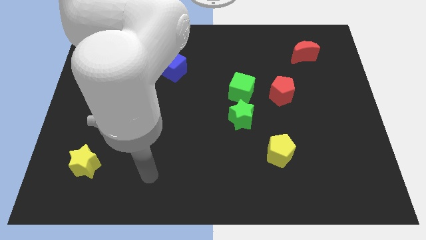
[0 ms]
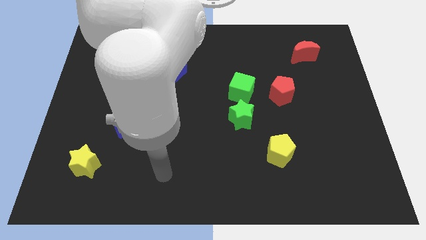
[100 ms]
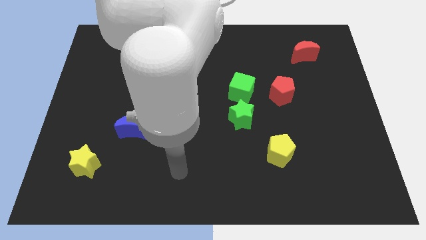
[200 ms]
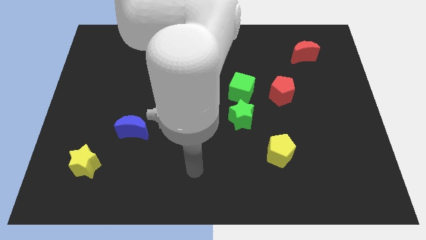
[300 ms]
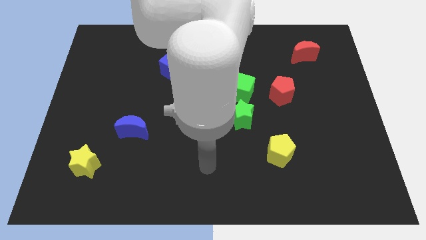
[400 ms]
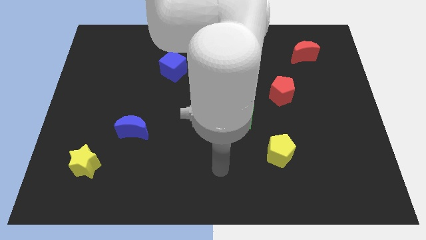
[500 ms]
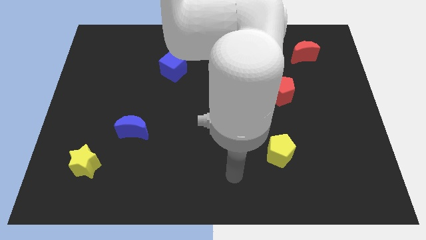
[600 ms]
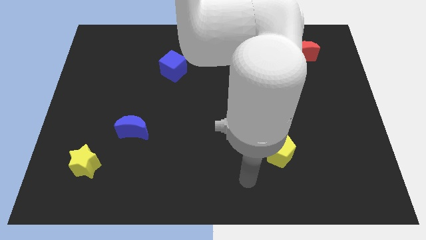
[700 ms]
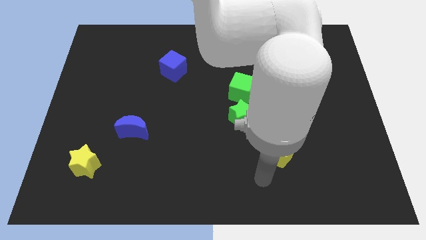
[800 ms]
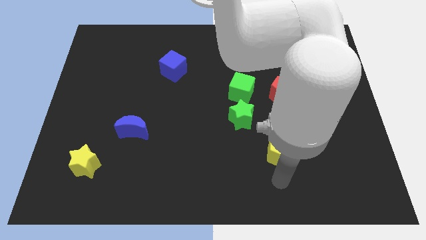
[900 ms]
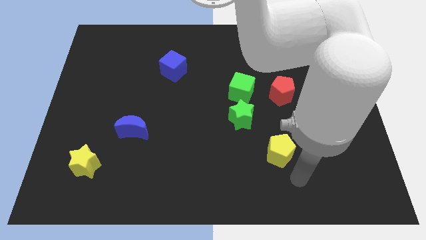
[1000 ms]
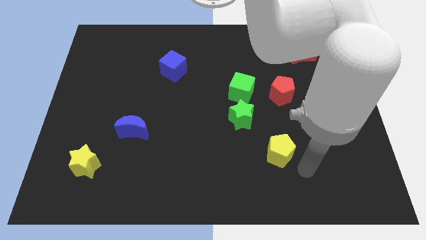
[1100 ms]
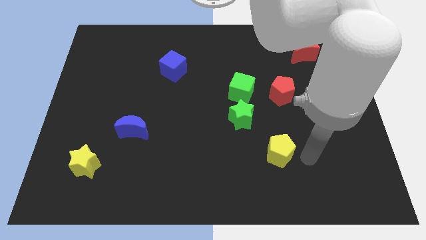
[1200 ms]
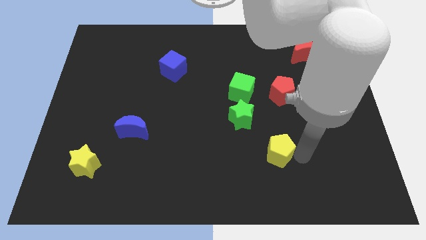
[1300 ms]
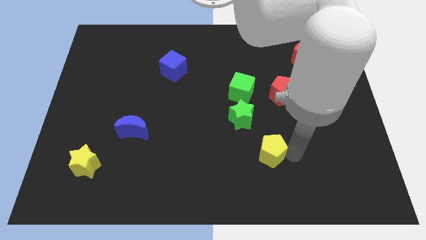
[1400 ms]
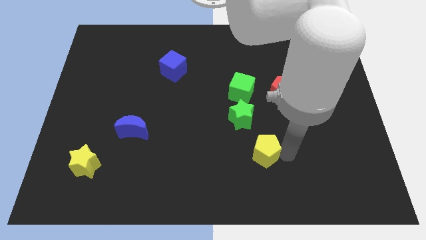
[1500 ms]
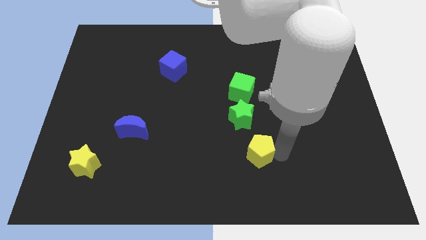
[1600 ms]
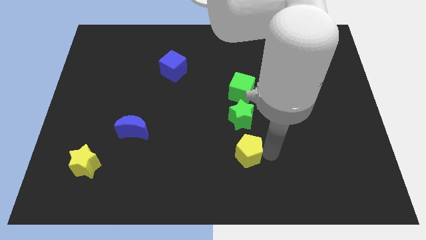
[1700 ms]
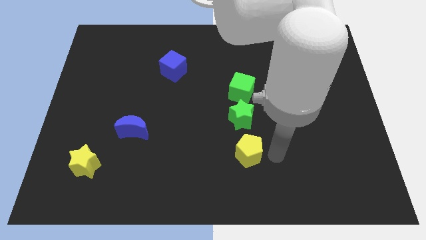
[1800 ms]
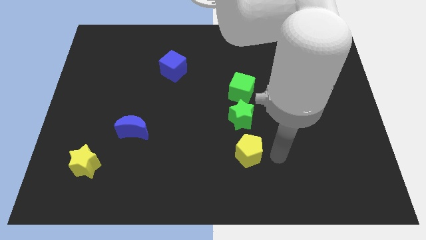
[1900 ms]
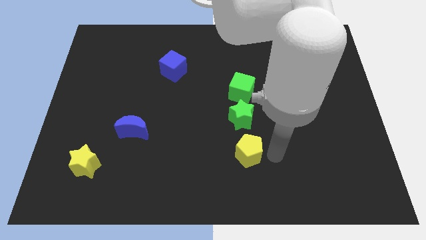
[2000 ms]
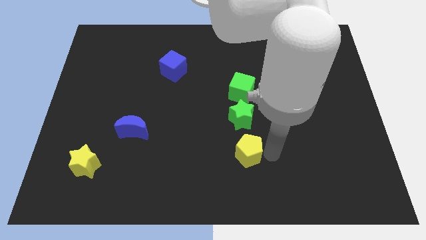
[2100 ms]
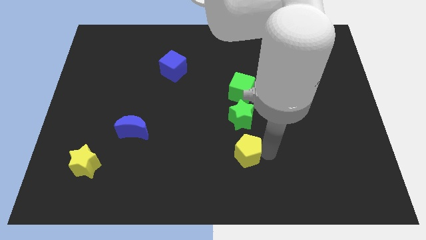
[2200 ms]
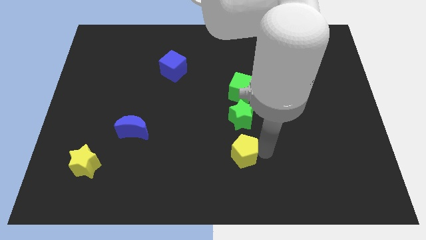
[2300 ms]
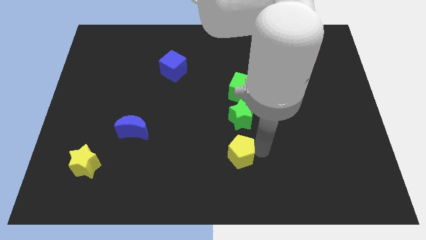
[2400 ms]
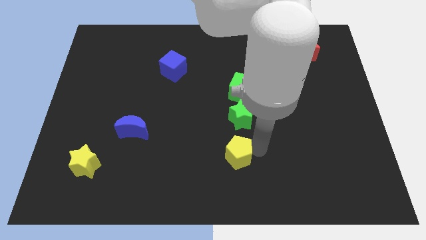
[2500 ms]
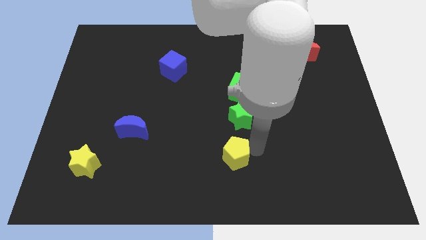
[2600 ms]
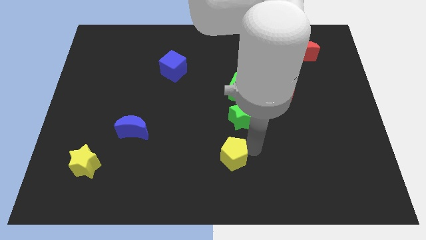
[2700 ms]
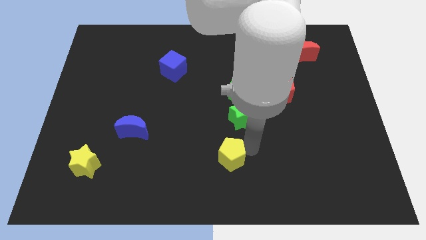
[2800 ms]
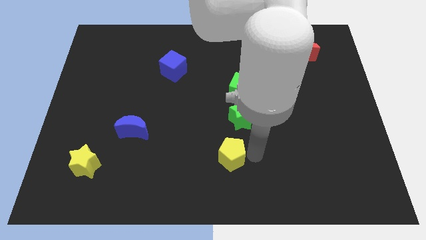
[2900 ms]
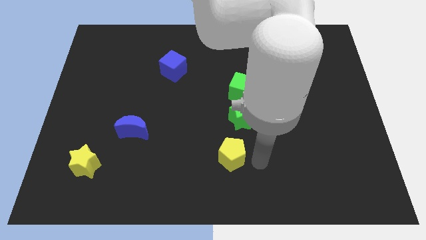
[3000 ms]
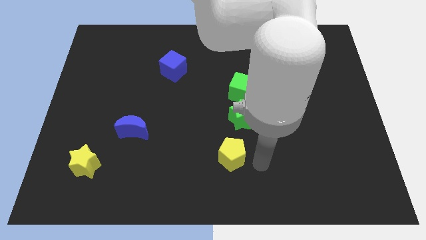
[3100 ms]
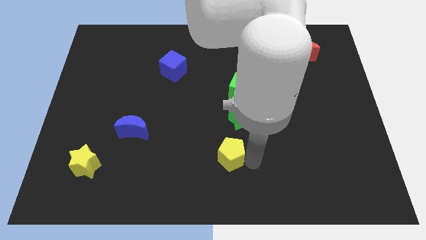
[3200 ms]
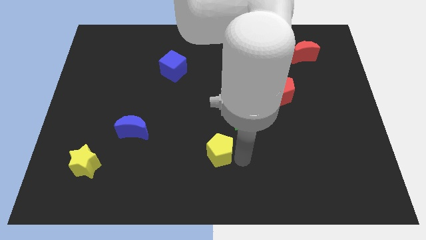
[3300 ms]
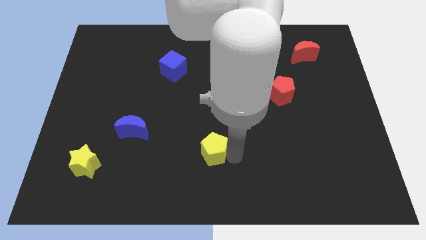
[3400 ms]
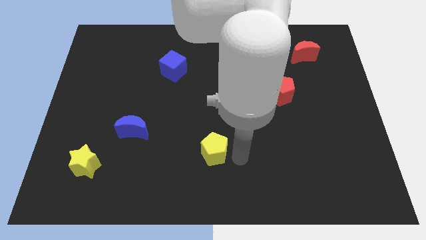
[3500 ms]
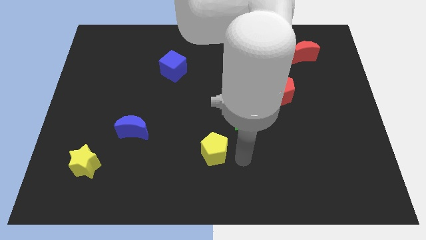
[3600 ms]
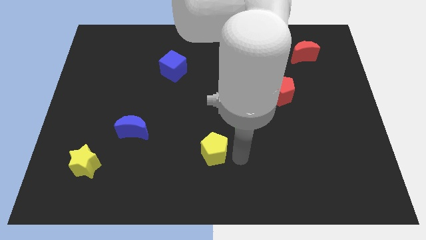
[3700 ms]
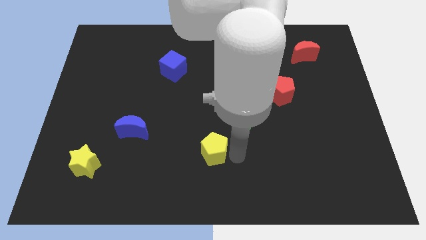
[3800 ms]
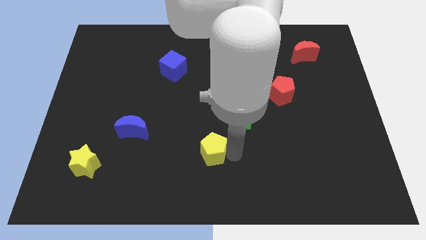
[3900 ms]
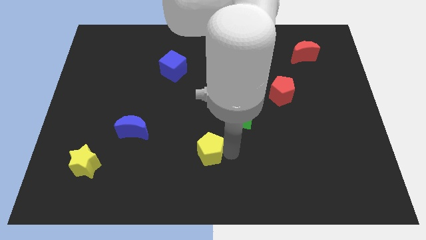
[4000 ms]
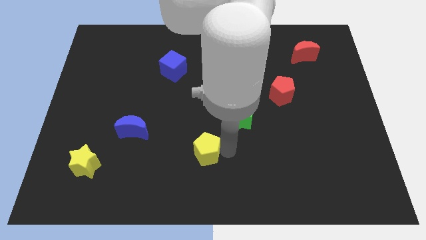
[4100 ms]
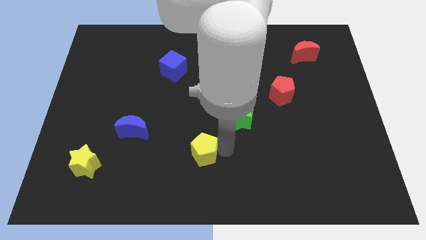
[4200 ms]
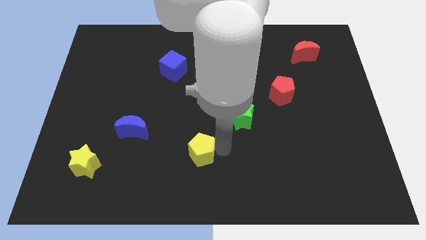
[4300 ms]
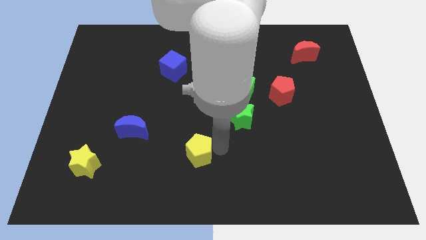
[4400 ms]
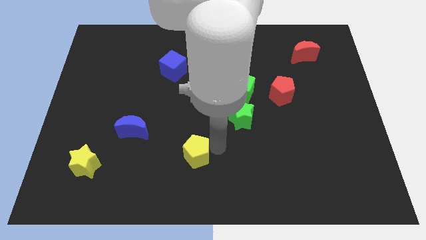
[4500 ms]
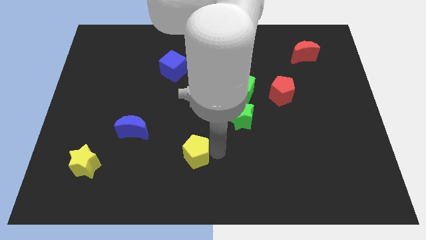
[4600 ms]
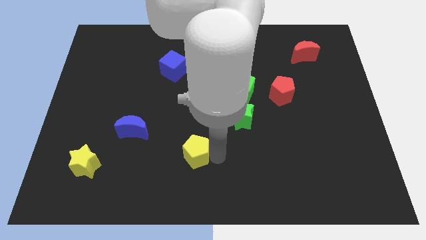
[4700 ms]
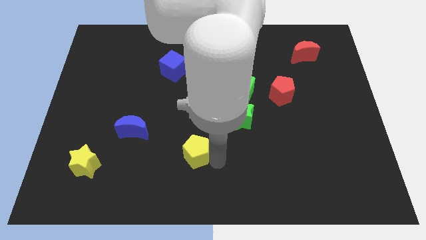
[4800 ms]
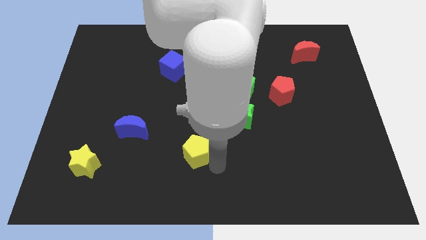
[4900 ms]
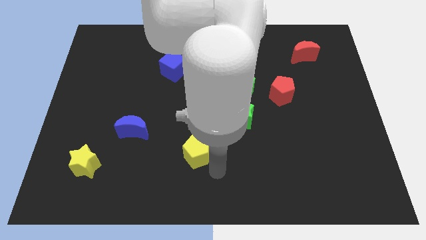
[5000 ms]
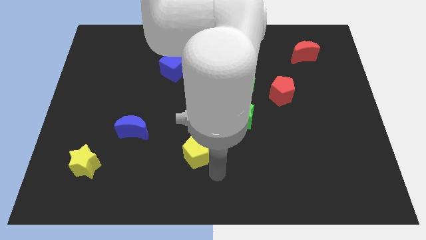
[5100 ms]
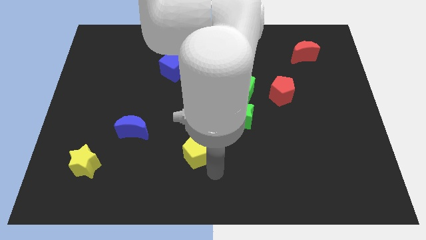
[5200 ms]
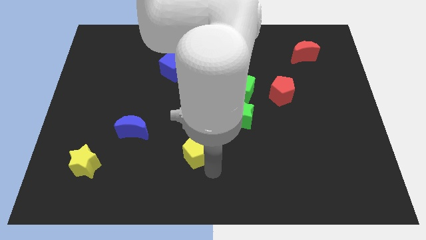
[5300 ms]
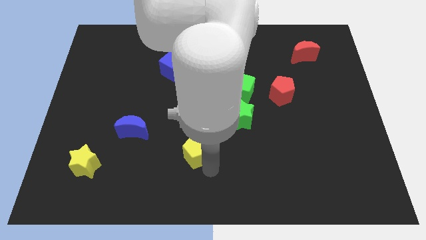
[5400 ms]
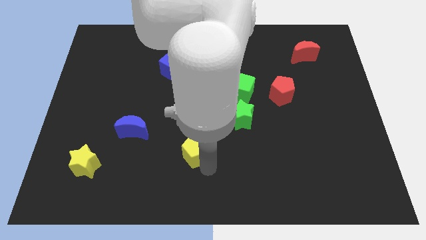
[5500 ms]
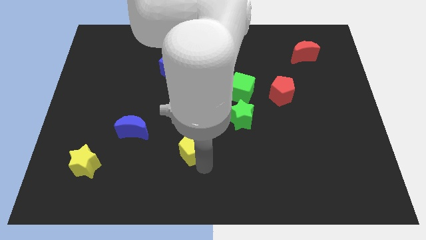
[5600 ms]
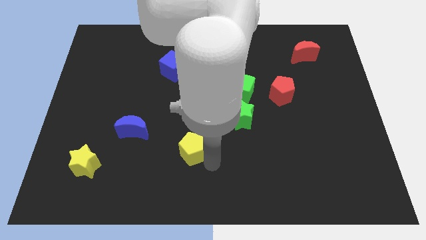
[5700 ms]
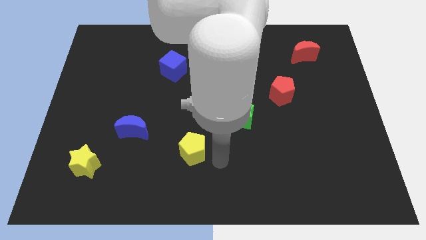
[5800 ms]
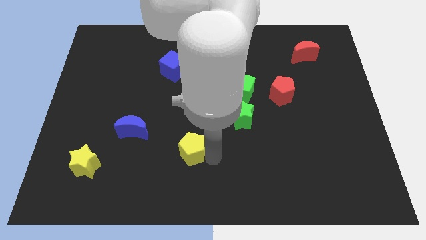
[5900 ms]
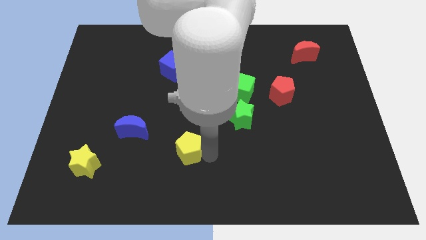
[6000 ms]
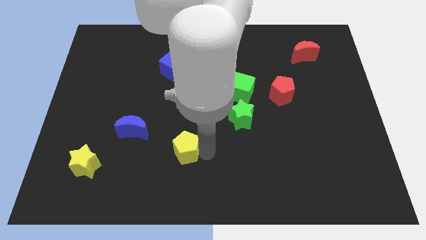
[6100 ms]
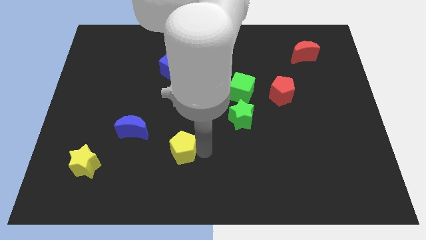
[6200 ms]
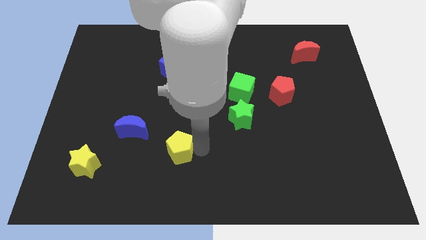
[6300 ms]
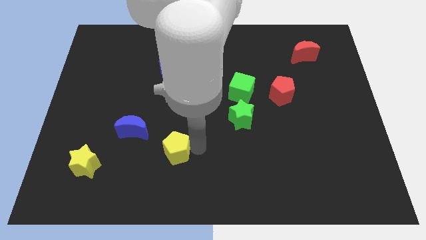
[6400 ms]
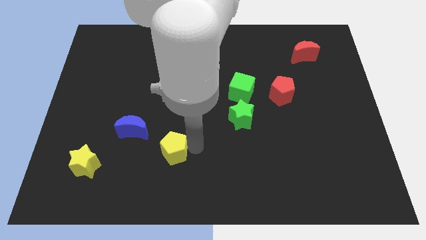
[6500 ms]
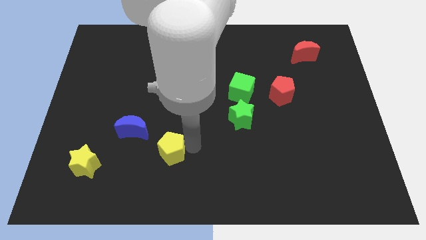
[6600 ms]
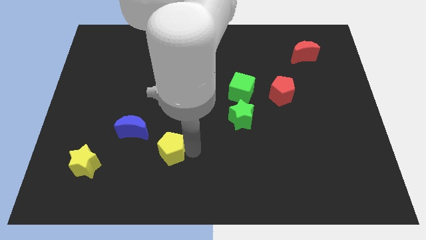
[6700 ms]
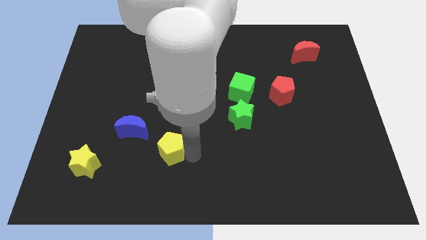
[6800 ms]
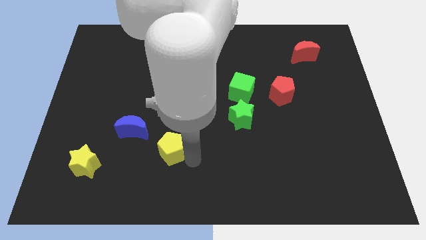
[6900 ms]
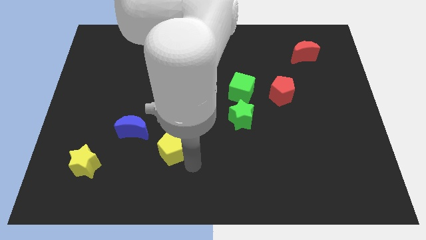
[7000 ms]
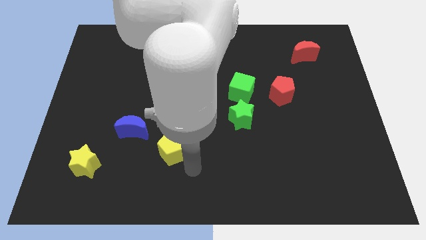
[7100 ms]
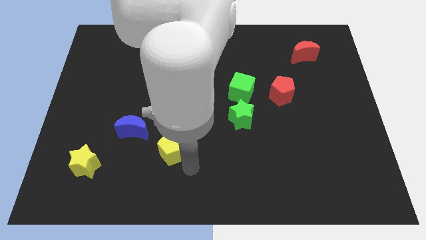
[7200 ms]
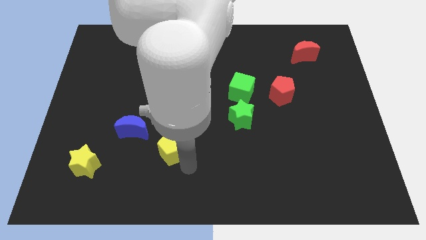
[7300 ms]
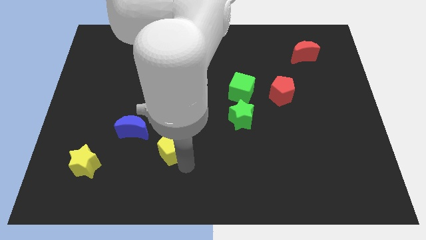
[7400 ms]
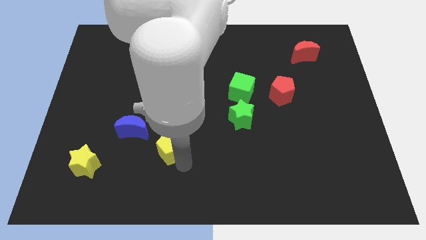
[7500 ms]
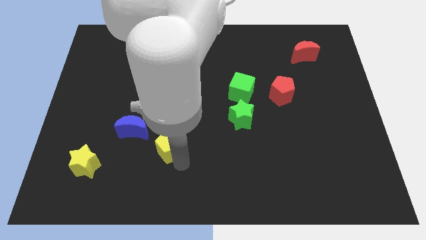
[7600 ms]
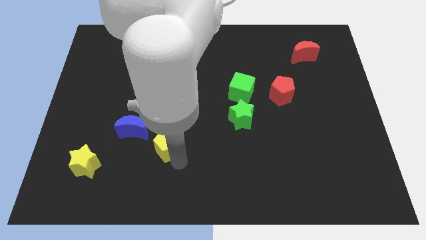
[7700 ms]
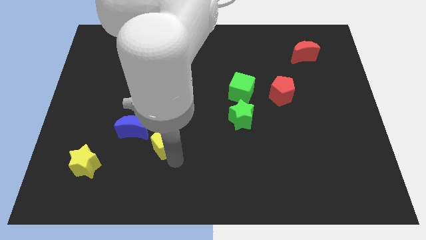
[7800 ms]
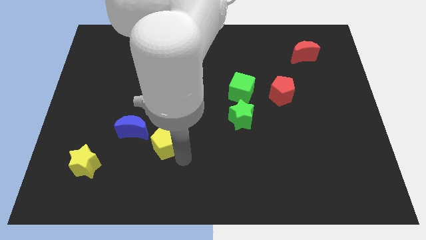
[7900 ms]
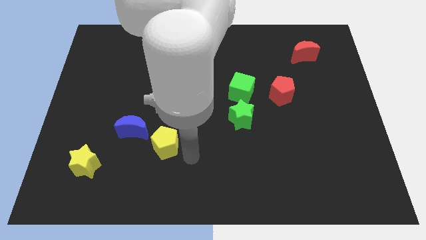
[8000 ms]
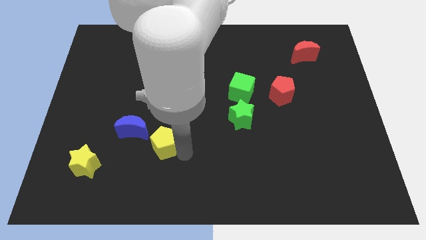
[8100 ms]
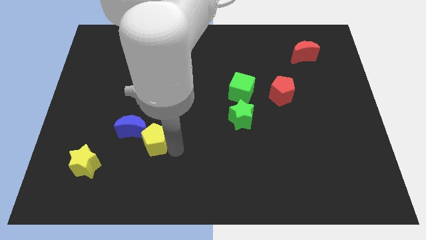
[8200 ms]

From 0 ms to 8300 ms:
move the yellow pentagon towards the blue moon
